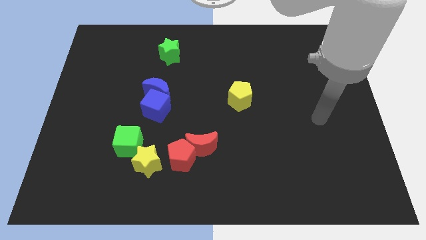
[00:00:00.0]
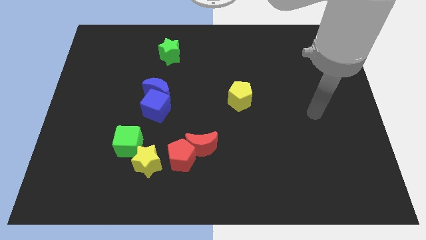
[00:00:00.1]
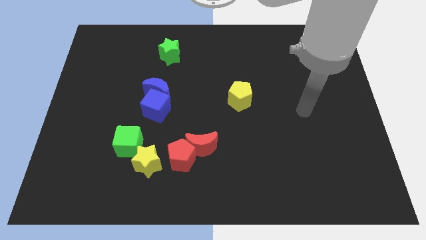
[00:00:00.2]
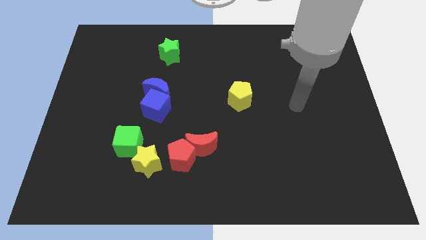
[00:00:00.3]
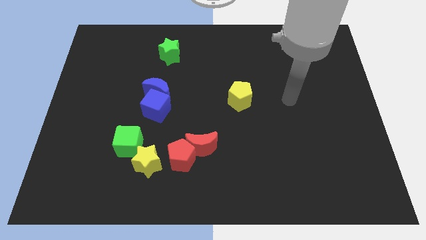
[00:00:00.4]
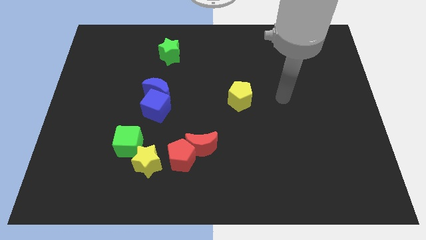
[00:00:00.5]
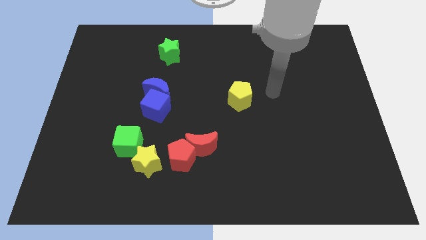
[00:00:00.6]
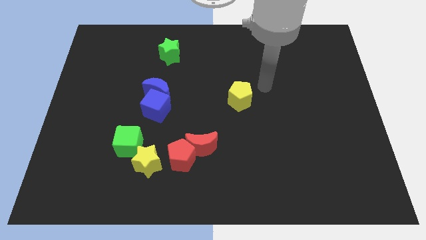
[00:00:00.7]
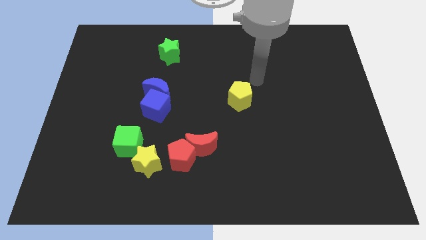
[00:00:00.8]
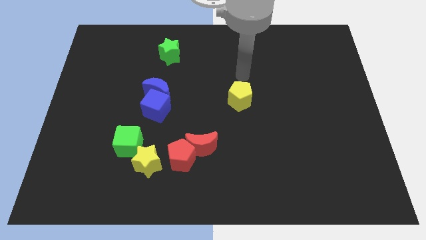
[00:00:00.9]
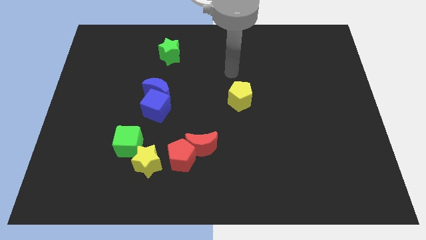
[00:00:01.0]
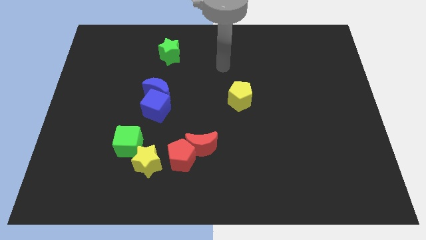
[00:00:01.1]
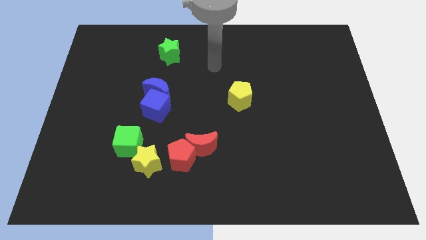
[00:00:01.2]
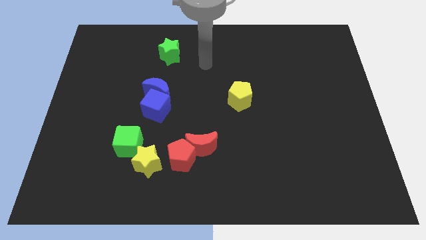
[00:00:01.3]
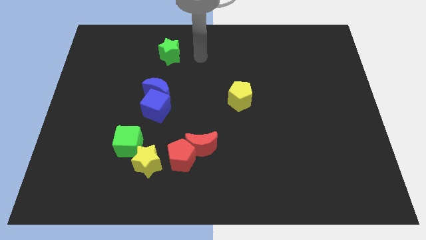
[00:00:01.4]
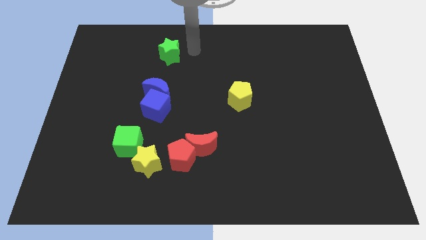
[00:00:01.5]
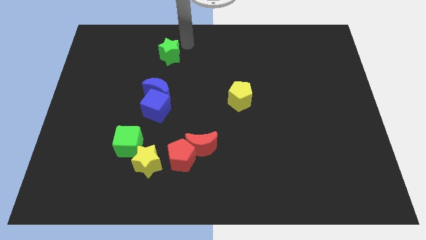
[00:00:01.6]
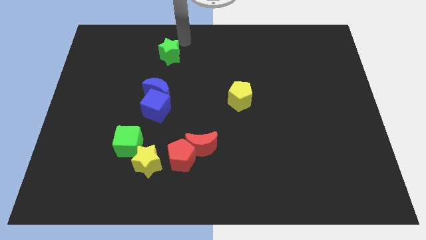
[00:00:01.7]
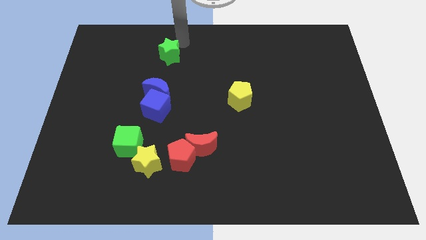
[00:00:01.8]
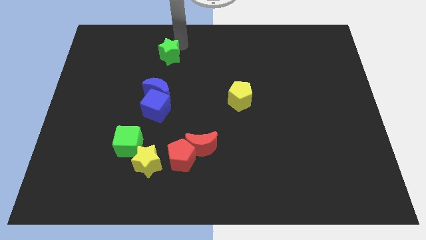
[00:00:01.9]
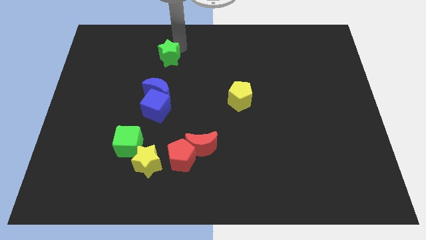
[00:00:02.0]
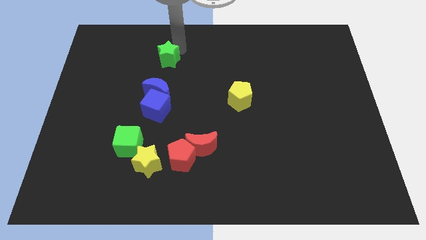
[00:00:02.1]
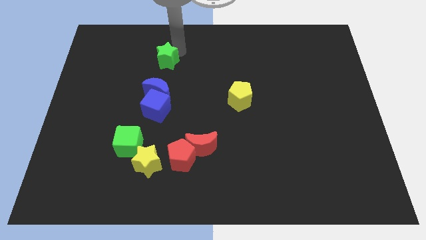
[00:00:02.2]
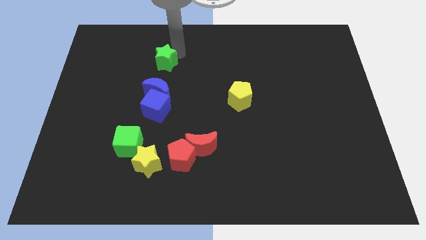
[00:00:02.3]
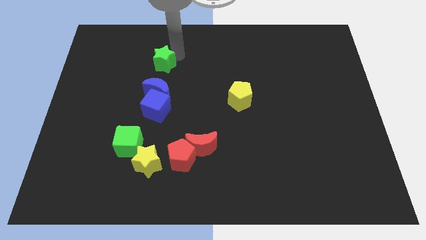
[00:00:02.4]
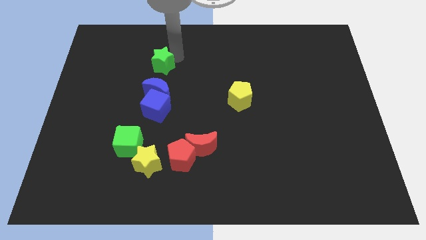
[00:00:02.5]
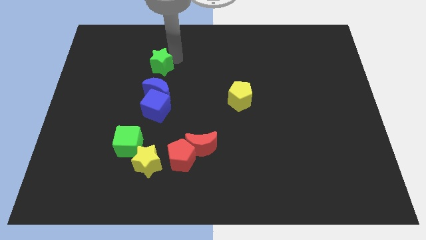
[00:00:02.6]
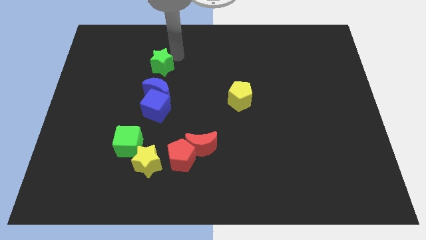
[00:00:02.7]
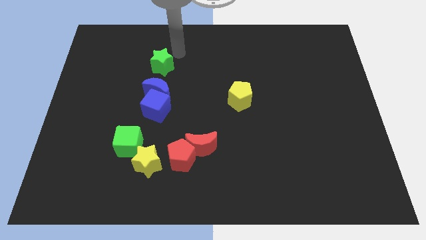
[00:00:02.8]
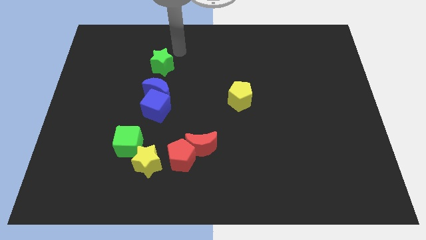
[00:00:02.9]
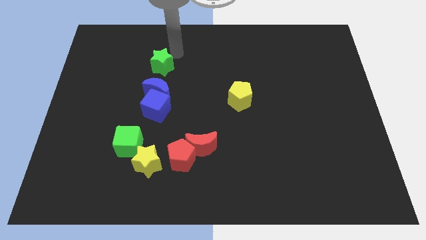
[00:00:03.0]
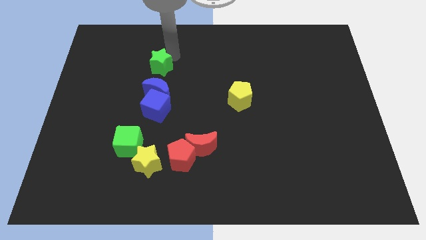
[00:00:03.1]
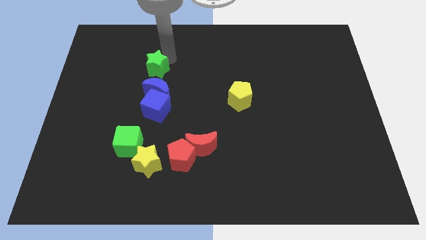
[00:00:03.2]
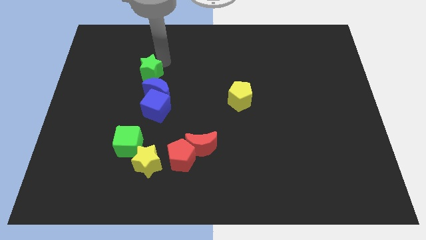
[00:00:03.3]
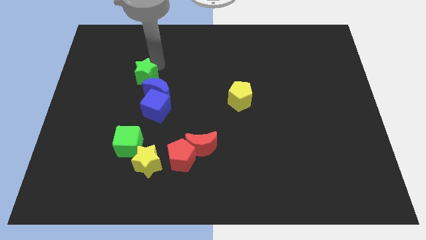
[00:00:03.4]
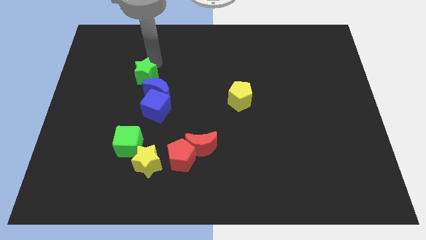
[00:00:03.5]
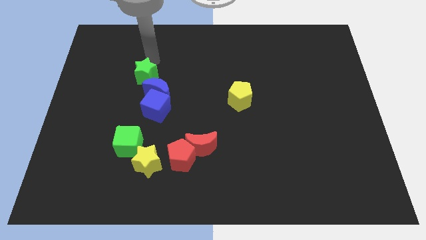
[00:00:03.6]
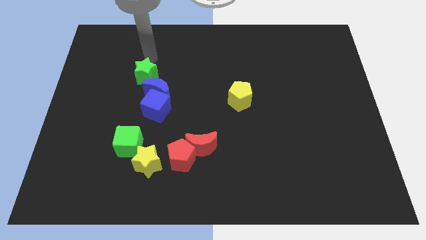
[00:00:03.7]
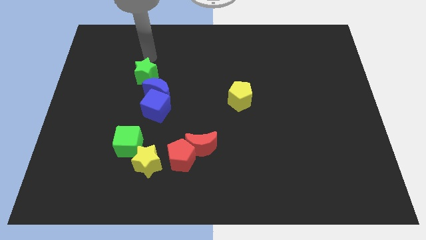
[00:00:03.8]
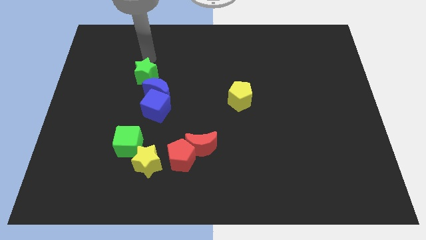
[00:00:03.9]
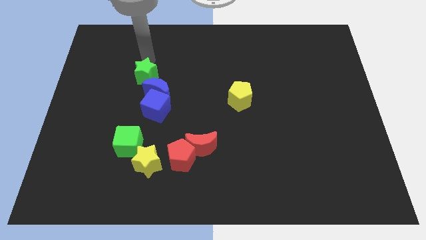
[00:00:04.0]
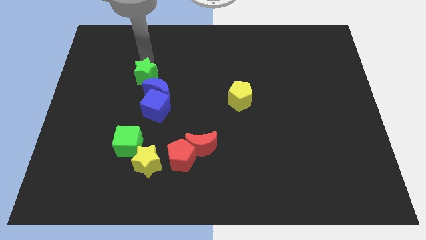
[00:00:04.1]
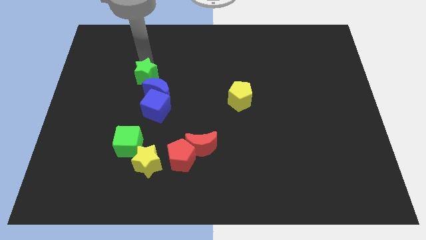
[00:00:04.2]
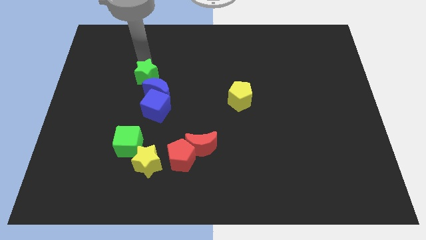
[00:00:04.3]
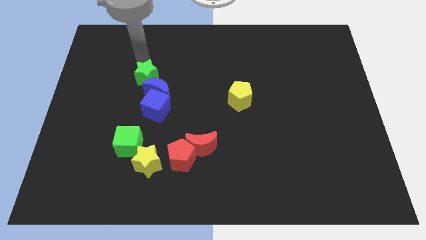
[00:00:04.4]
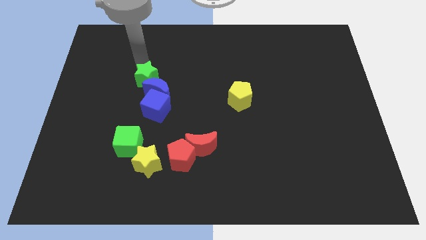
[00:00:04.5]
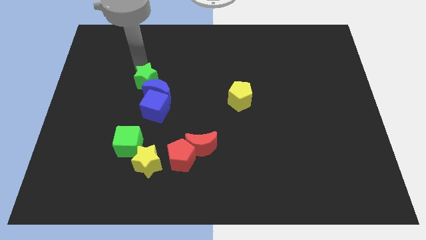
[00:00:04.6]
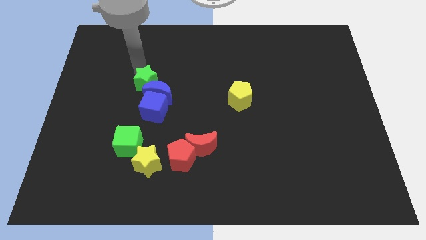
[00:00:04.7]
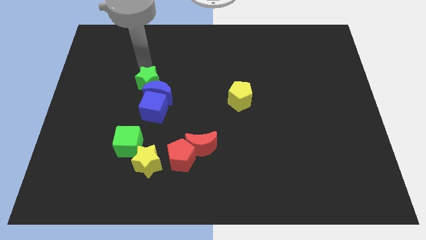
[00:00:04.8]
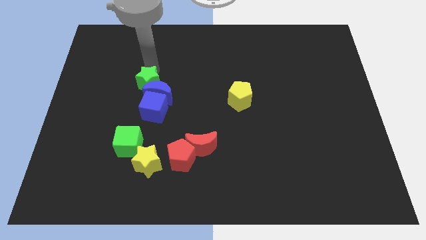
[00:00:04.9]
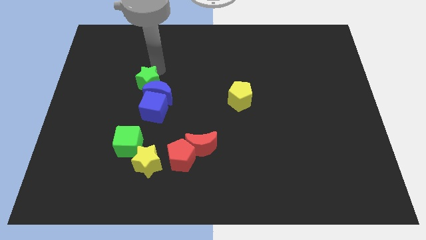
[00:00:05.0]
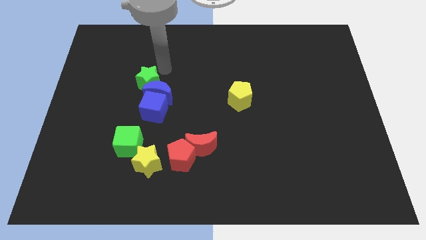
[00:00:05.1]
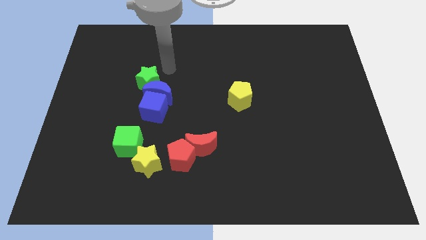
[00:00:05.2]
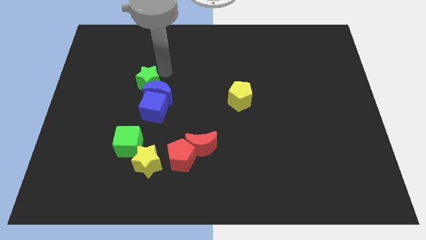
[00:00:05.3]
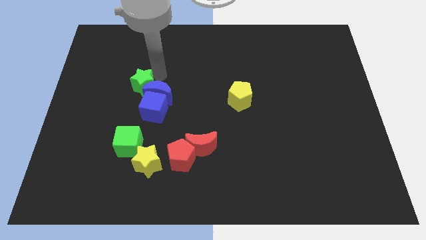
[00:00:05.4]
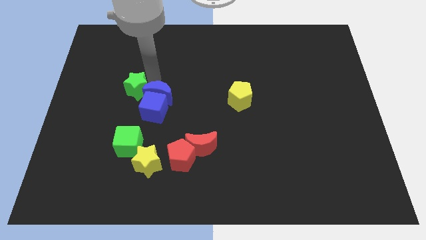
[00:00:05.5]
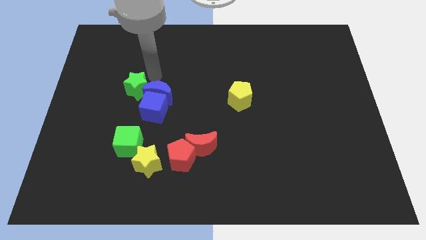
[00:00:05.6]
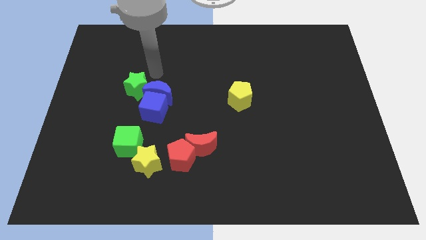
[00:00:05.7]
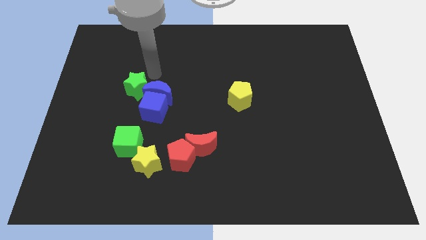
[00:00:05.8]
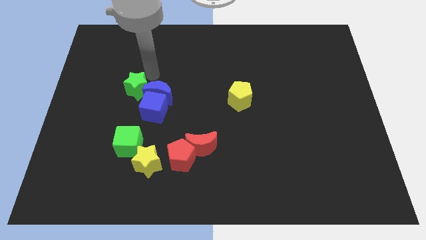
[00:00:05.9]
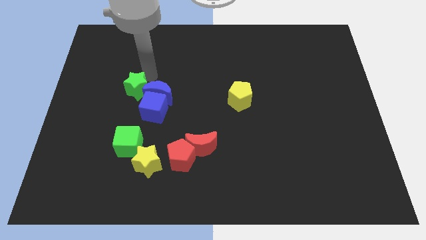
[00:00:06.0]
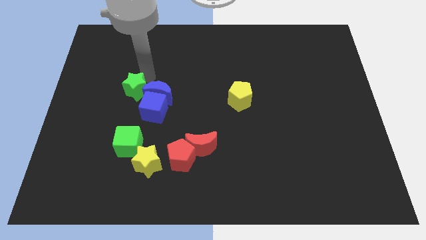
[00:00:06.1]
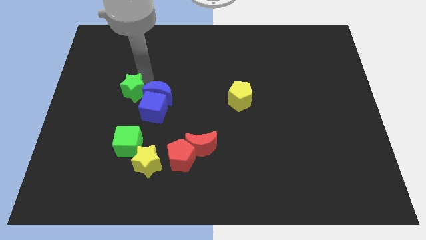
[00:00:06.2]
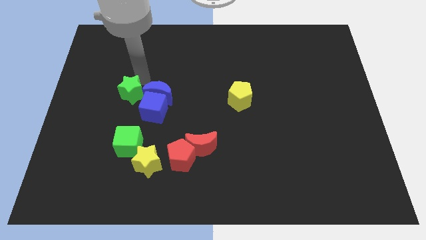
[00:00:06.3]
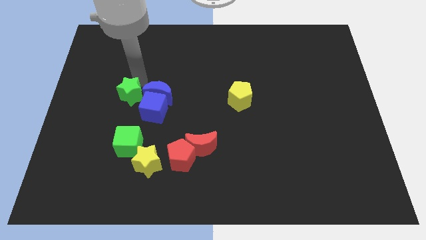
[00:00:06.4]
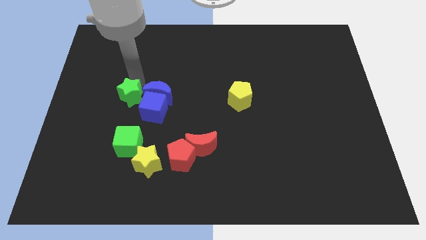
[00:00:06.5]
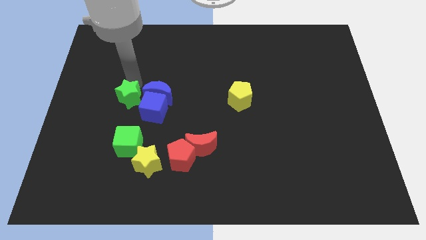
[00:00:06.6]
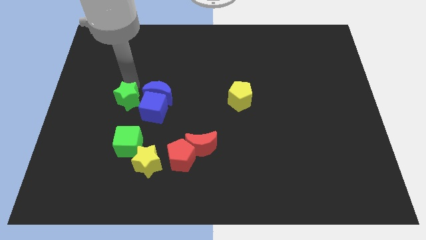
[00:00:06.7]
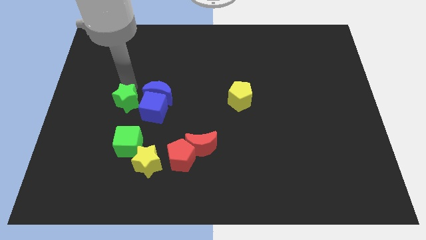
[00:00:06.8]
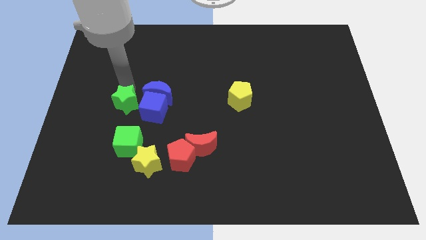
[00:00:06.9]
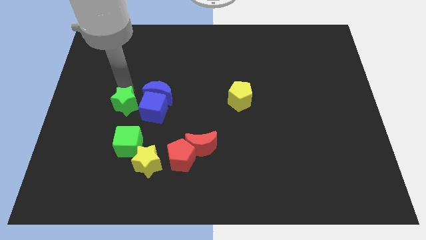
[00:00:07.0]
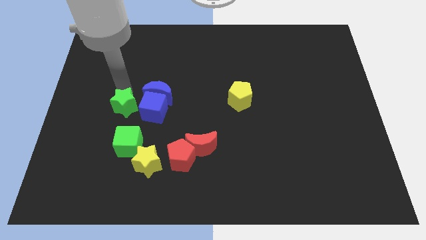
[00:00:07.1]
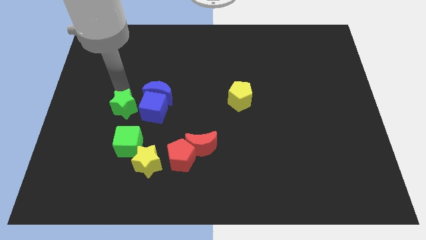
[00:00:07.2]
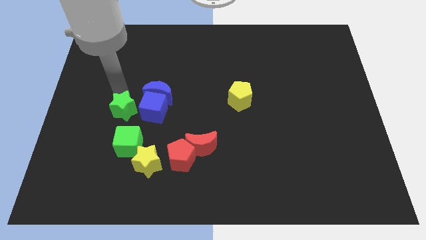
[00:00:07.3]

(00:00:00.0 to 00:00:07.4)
move the green star diagonally up and to the left of the green cube
